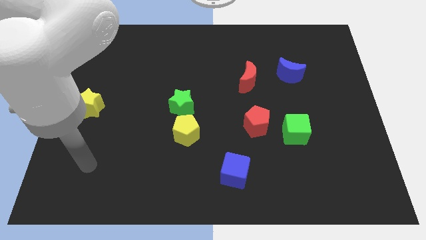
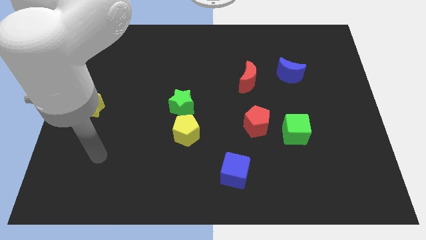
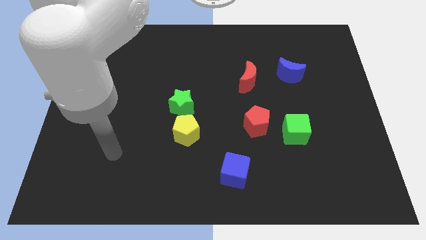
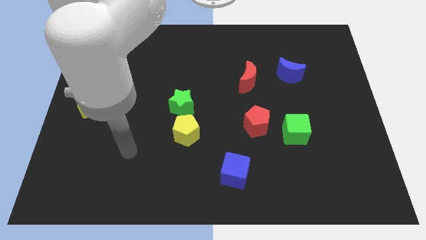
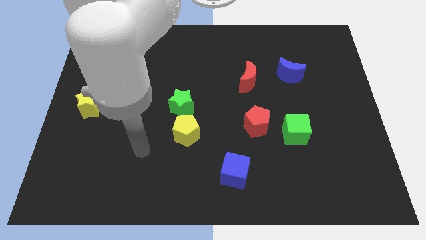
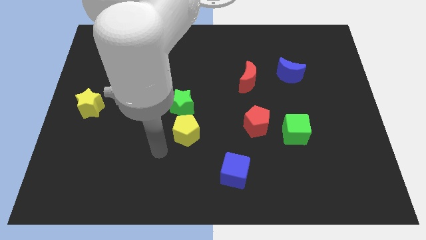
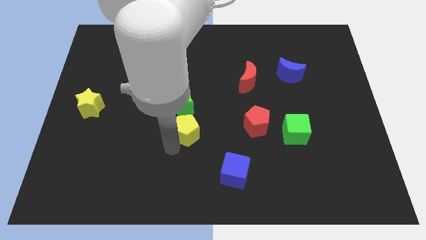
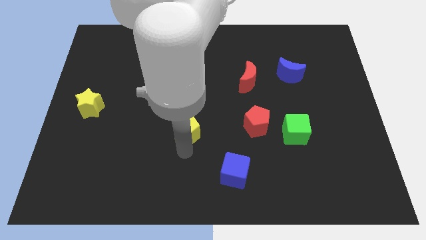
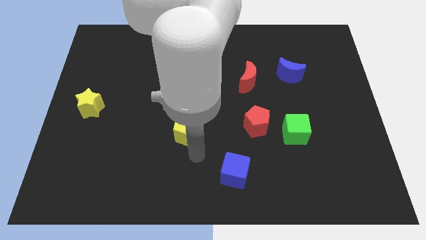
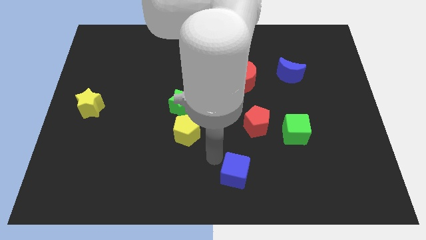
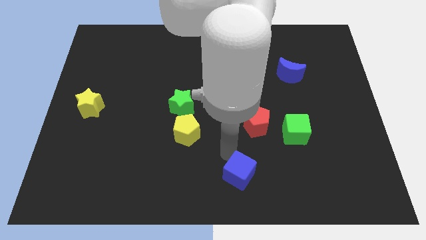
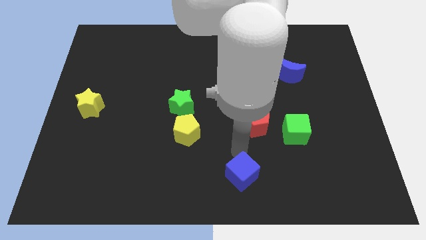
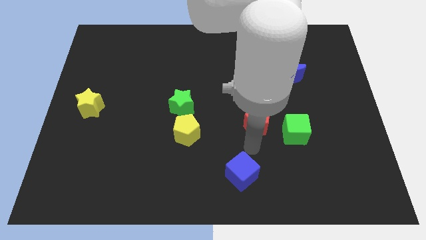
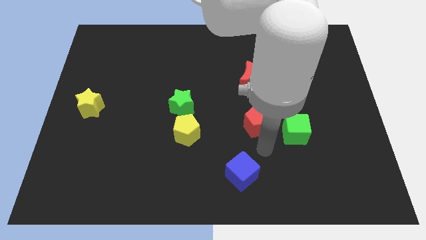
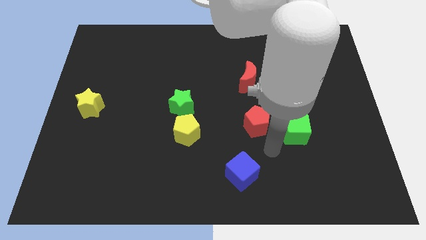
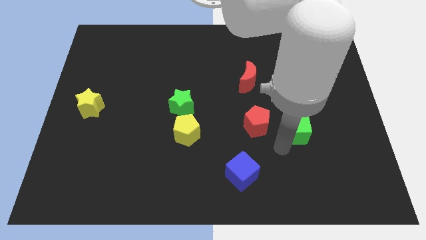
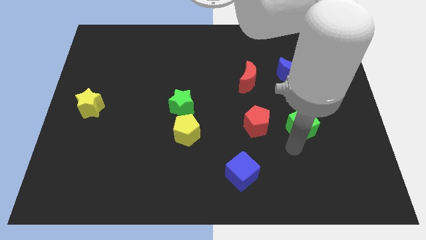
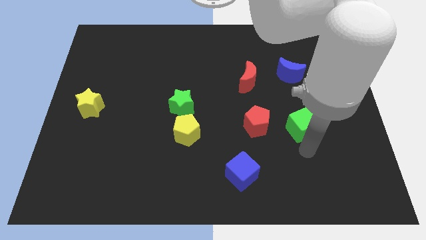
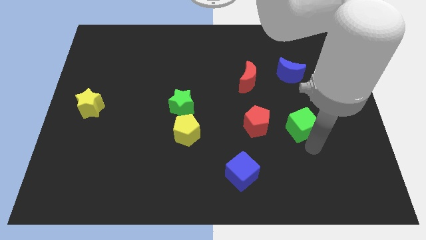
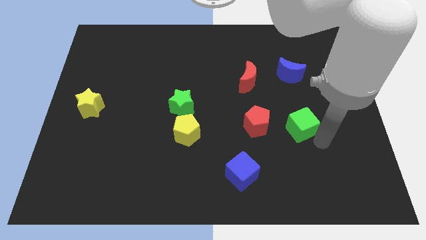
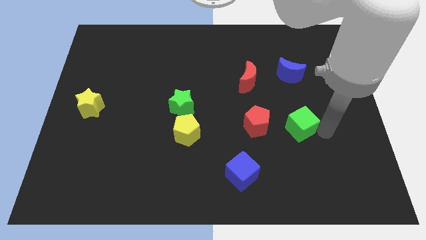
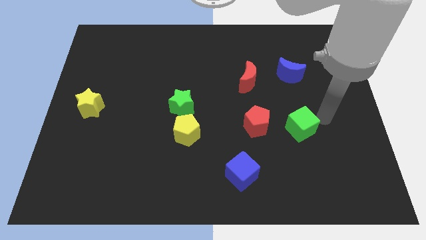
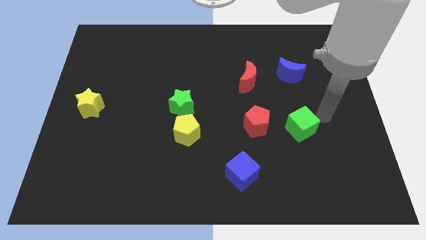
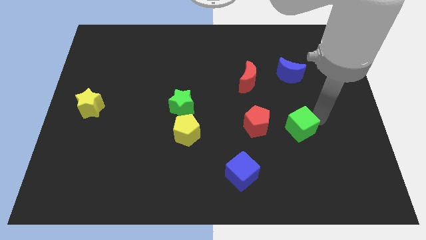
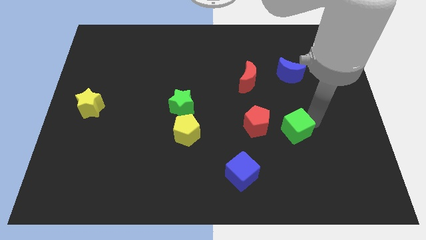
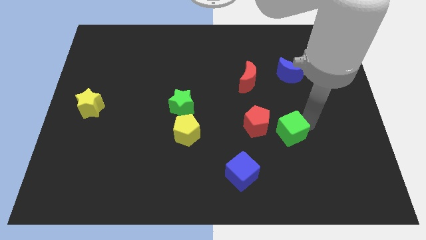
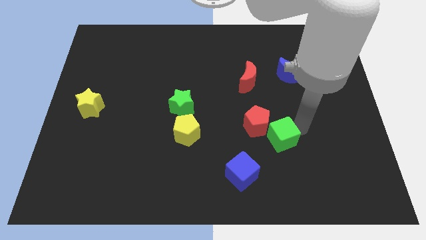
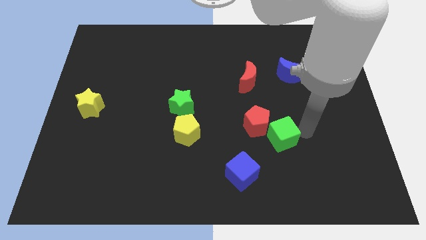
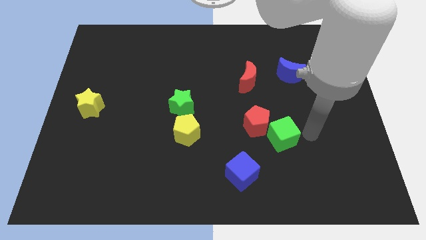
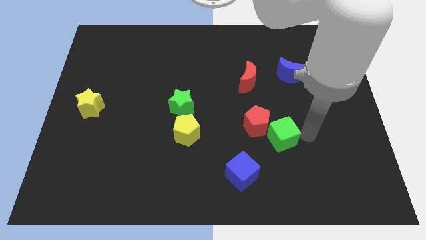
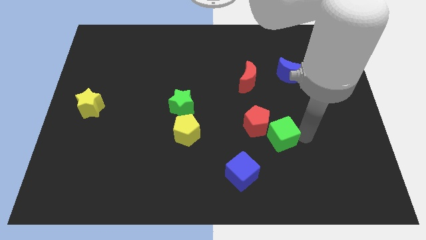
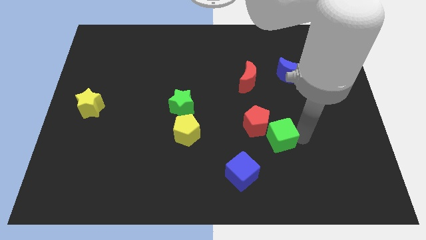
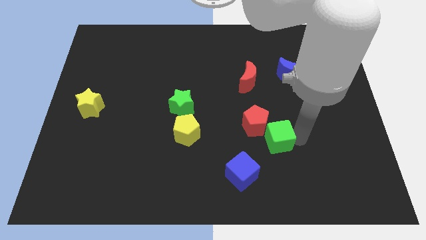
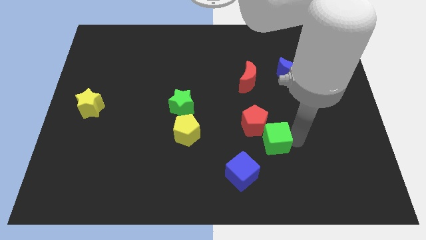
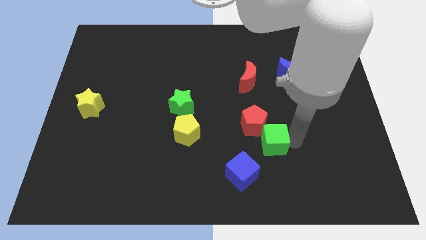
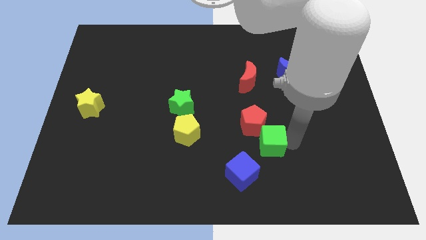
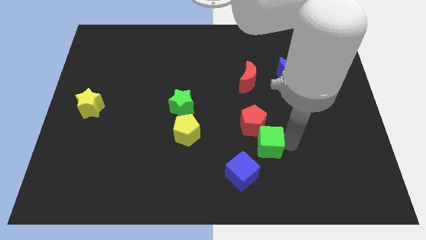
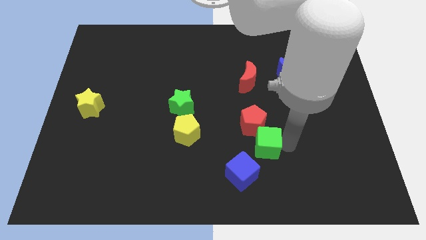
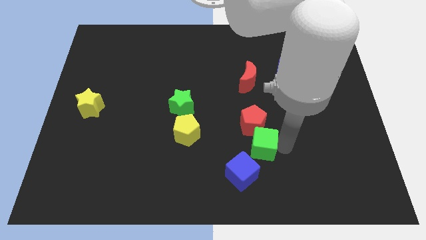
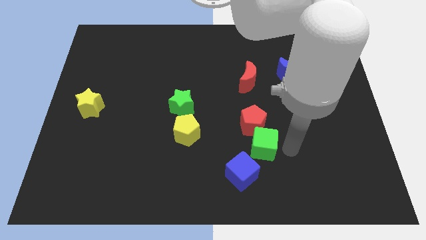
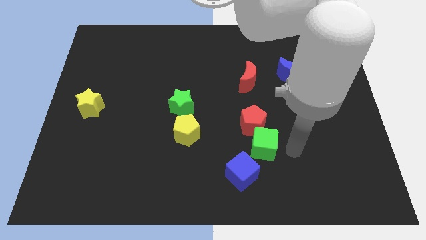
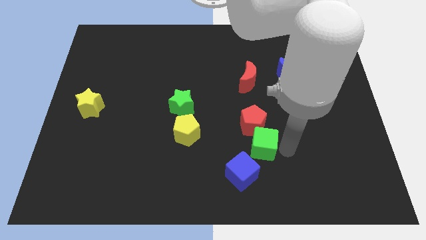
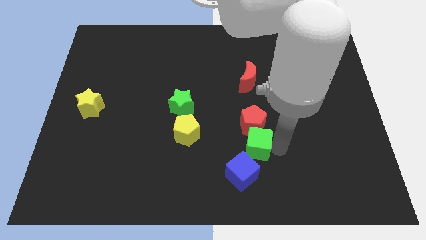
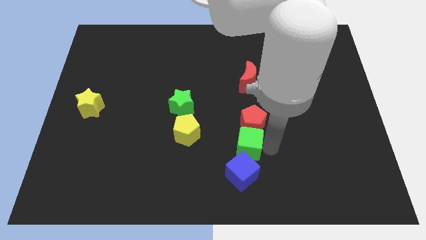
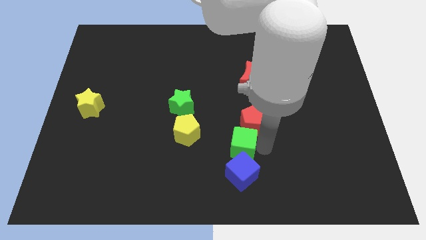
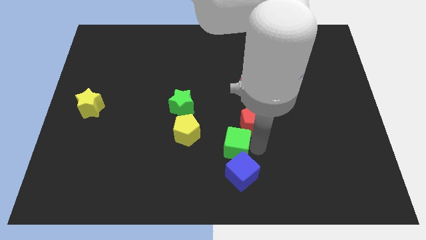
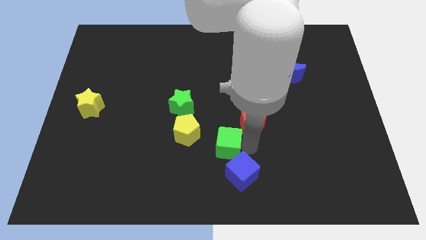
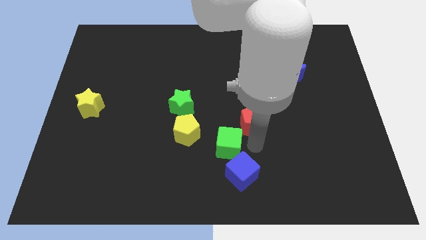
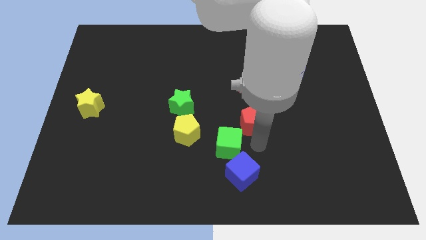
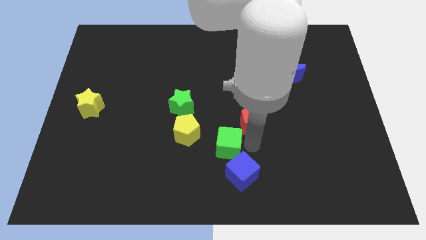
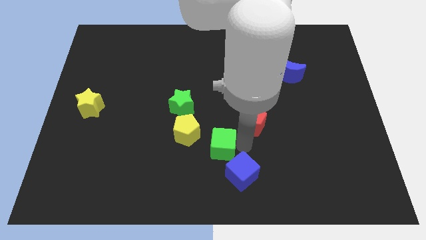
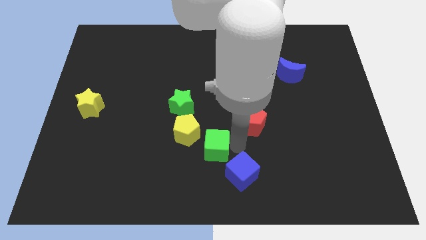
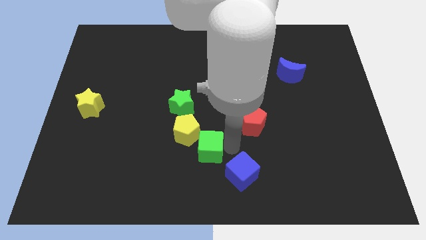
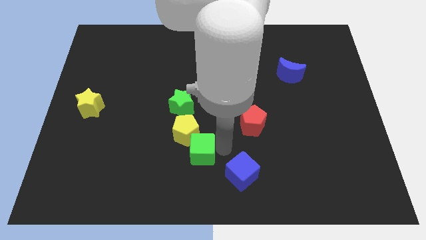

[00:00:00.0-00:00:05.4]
slide the green cube left

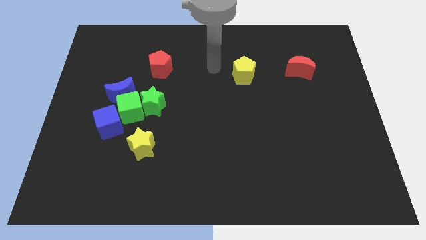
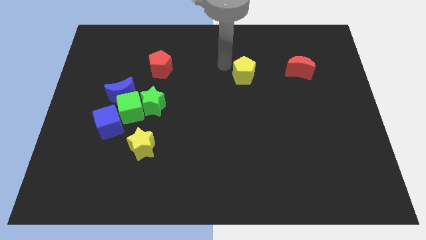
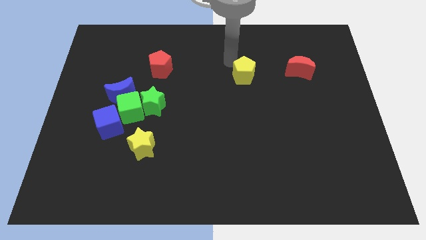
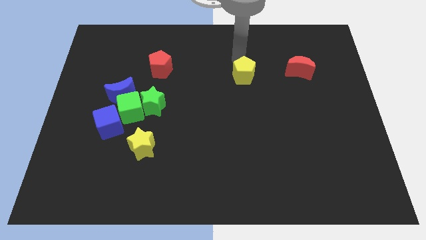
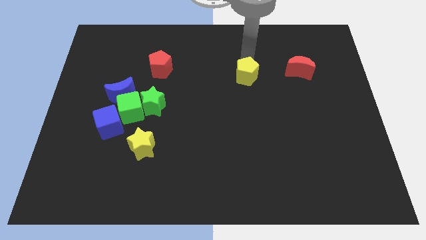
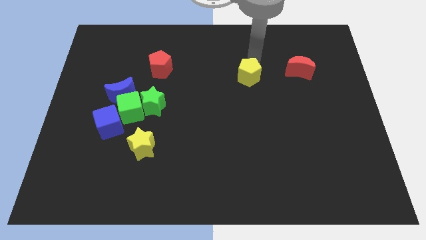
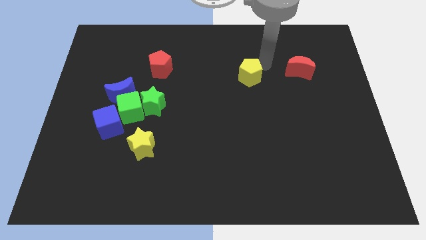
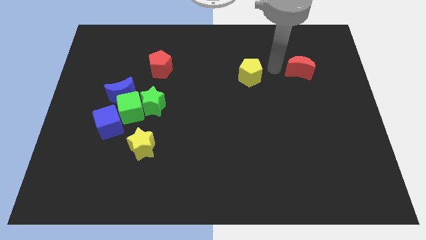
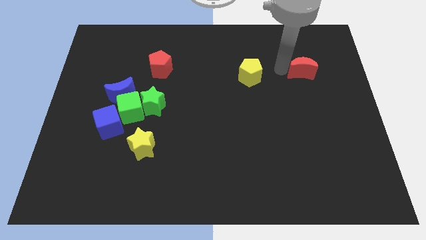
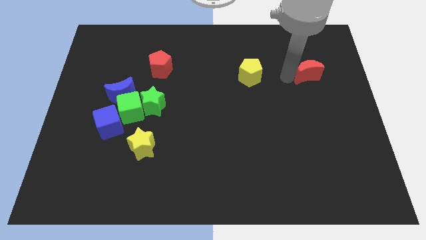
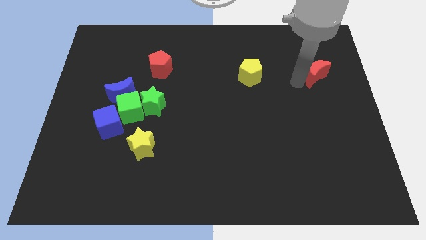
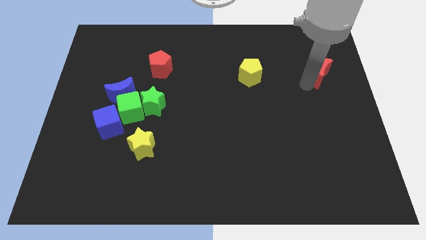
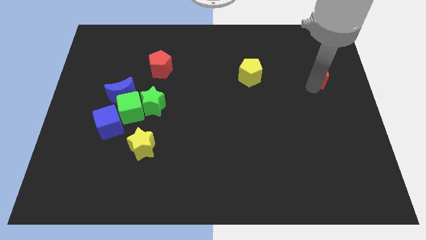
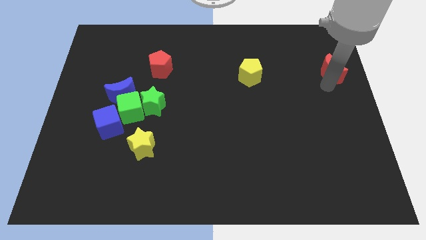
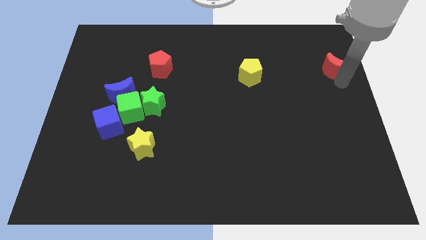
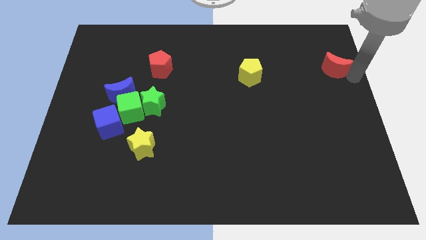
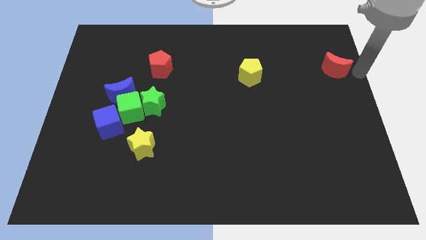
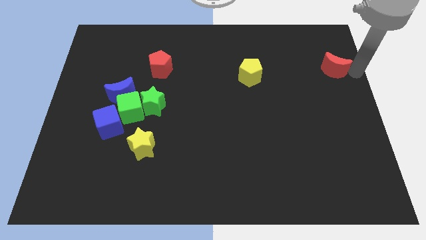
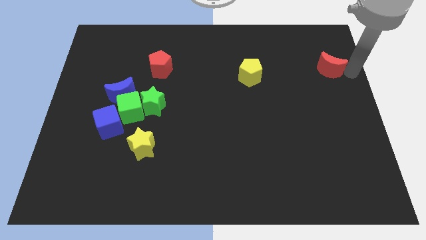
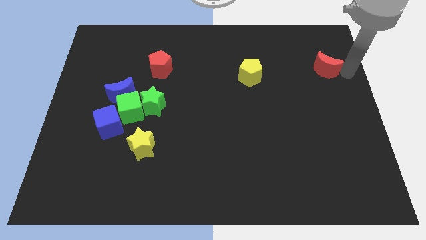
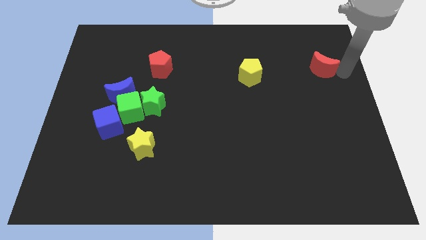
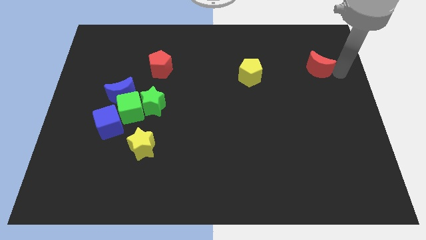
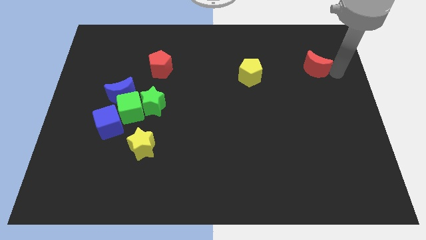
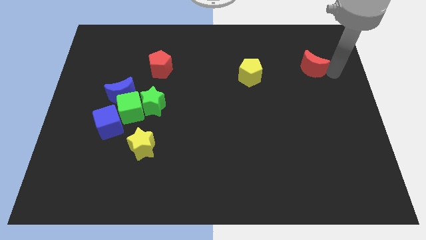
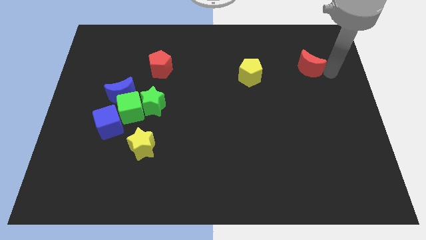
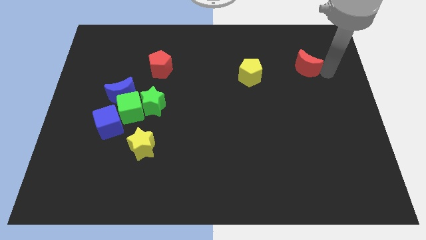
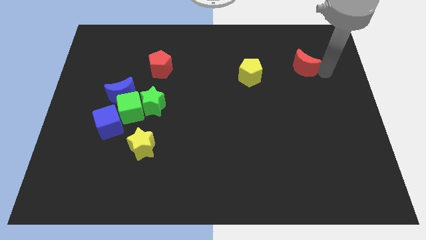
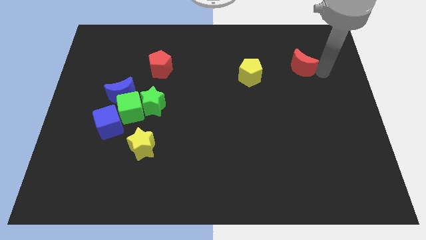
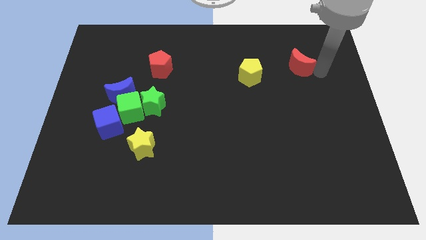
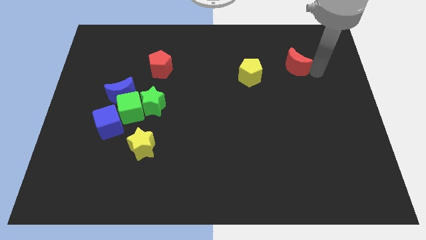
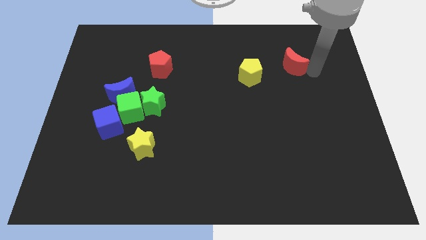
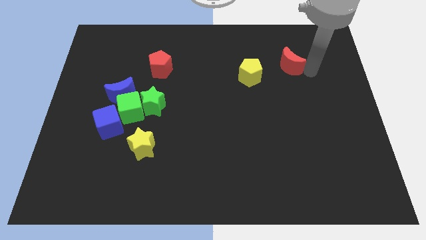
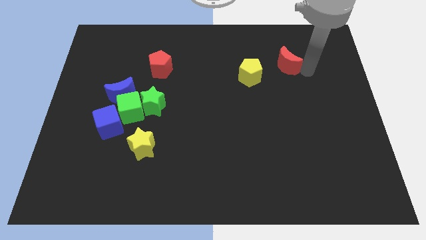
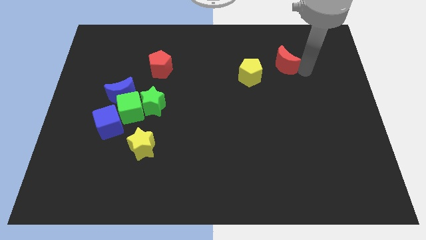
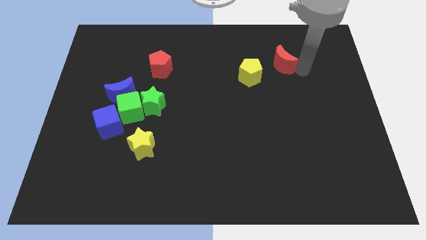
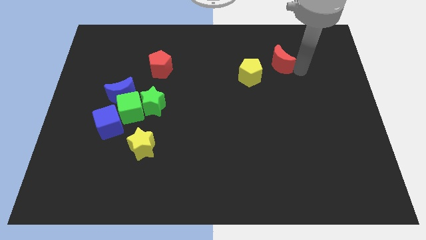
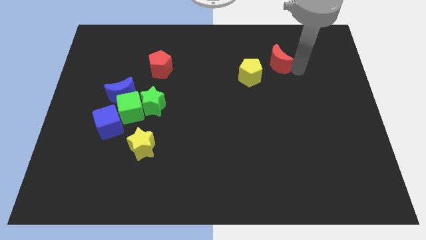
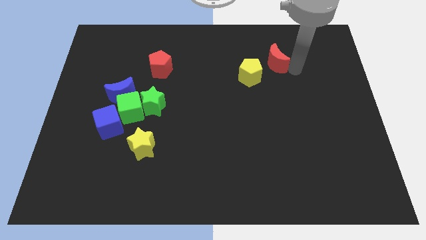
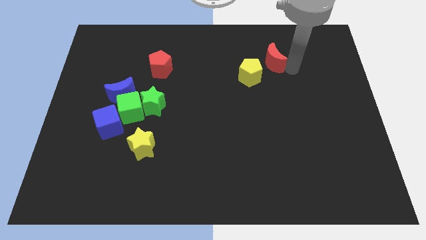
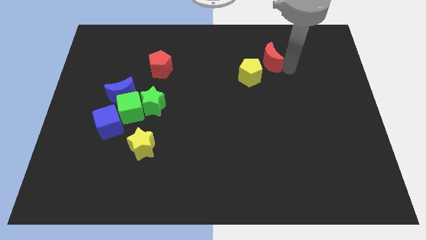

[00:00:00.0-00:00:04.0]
move the red moon left somewhat
